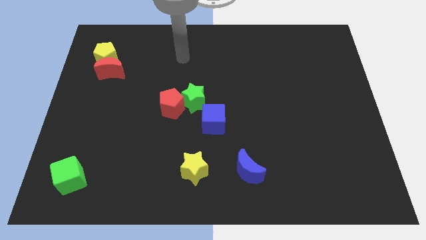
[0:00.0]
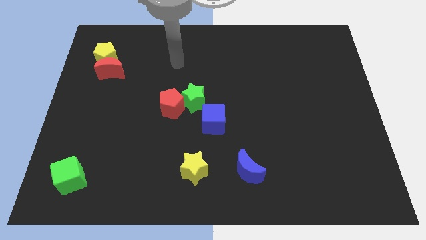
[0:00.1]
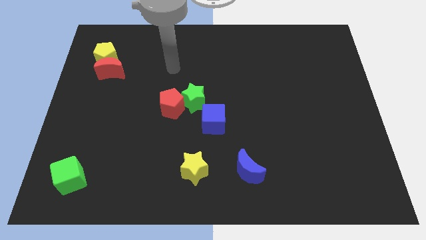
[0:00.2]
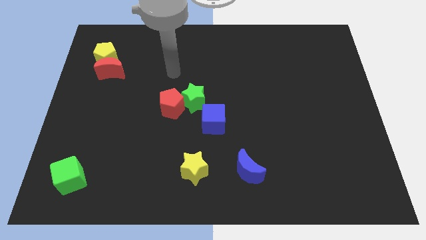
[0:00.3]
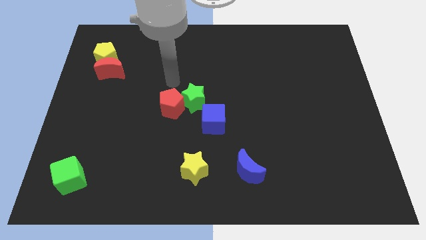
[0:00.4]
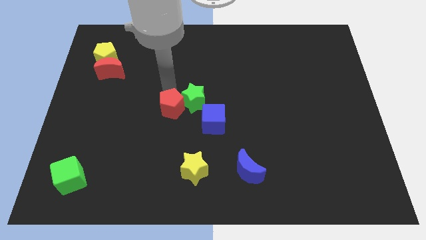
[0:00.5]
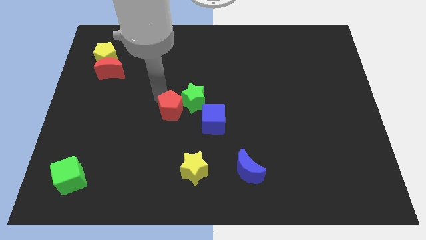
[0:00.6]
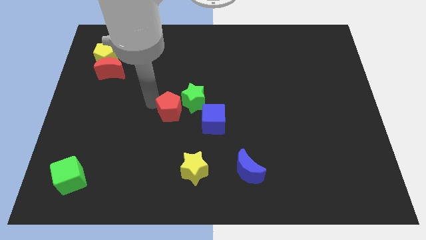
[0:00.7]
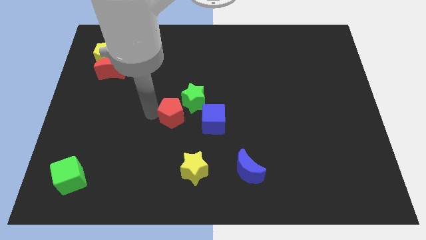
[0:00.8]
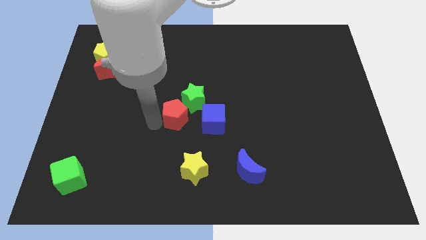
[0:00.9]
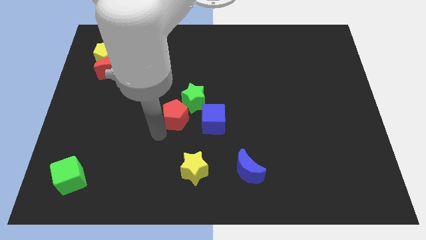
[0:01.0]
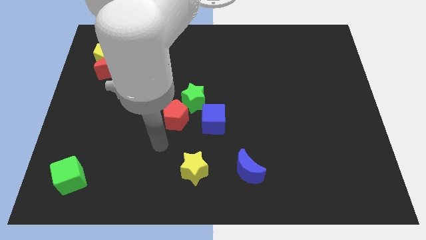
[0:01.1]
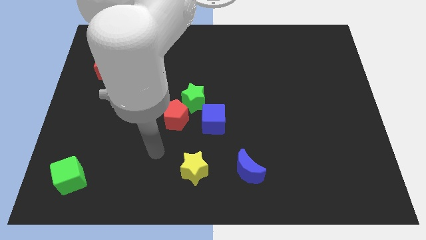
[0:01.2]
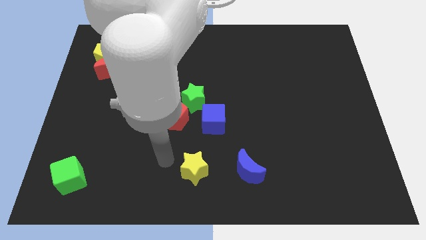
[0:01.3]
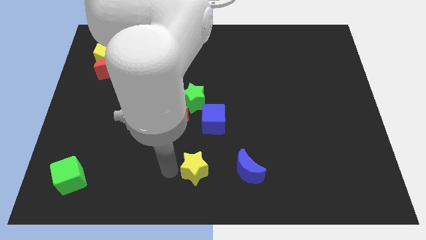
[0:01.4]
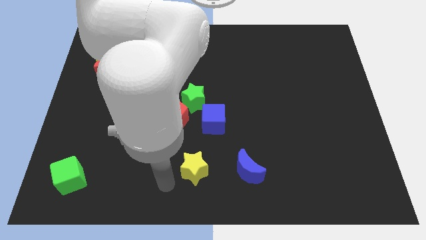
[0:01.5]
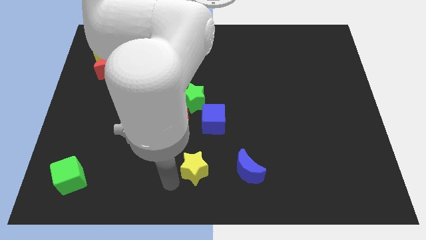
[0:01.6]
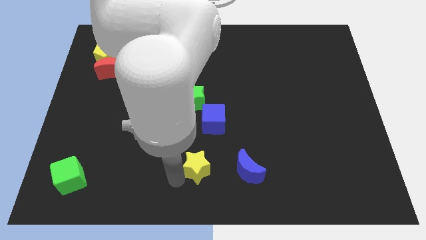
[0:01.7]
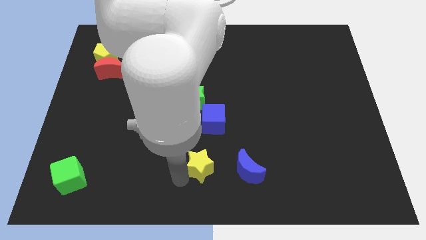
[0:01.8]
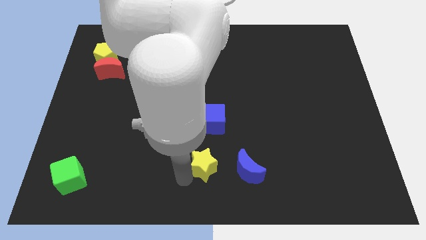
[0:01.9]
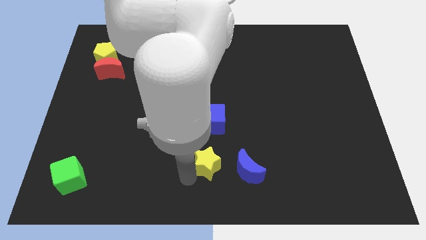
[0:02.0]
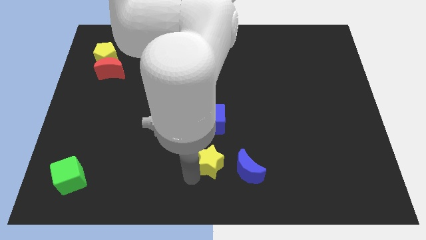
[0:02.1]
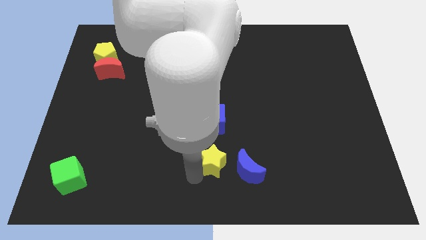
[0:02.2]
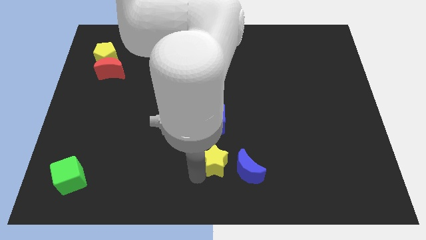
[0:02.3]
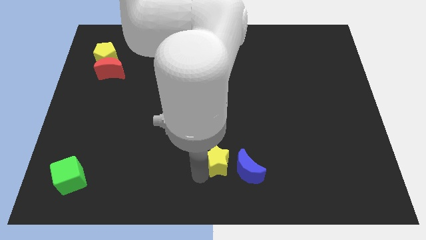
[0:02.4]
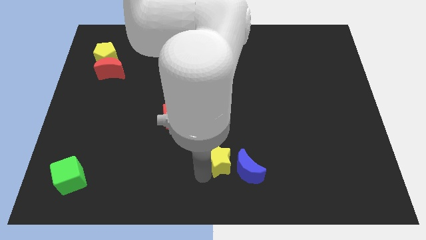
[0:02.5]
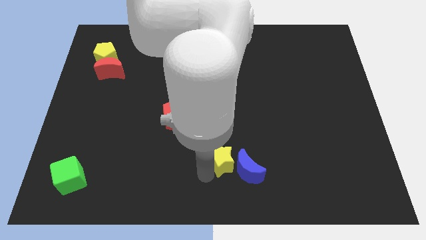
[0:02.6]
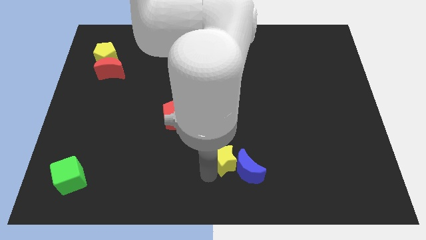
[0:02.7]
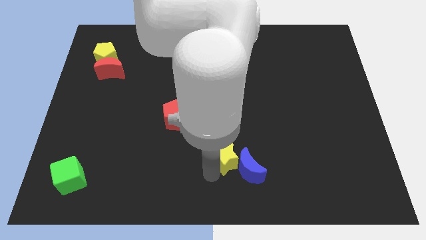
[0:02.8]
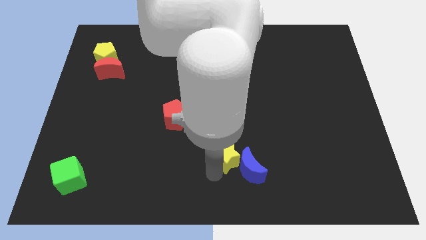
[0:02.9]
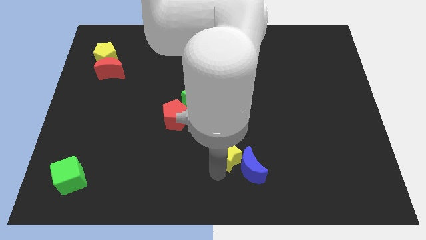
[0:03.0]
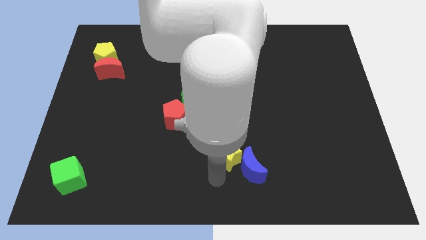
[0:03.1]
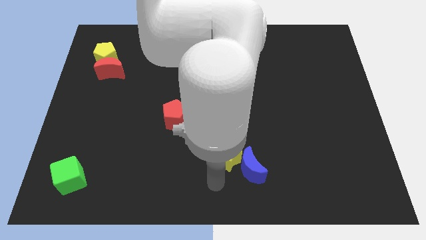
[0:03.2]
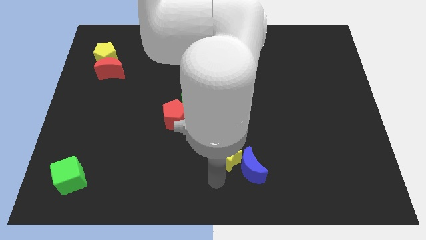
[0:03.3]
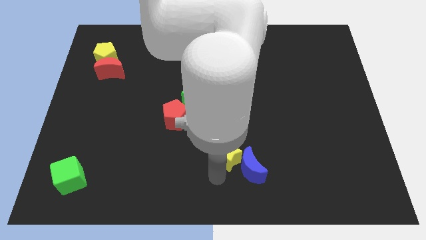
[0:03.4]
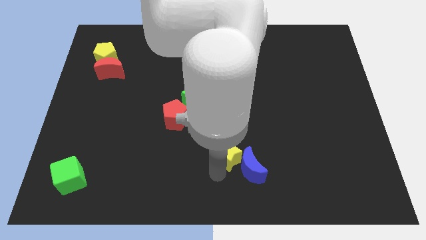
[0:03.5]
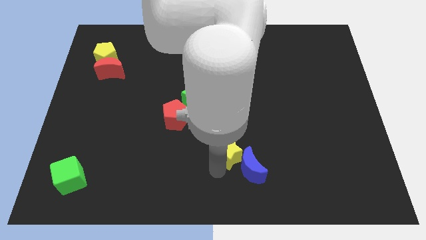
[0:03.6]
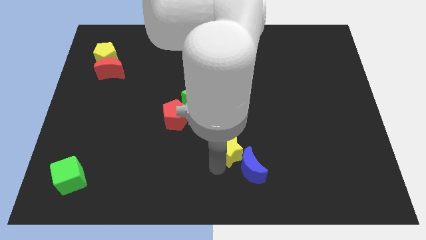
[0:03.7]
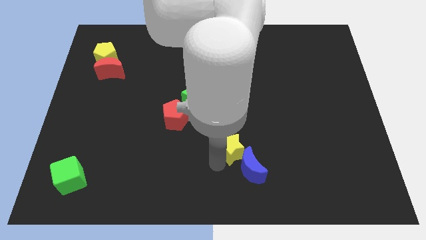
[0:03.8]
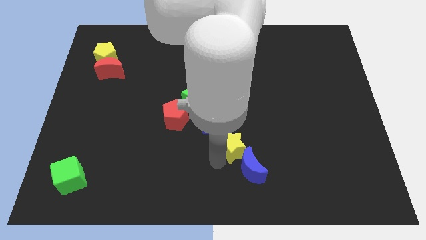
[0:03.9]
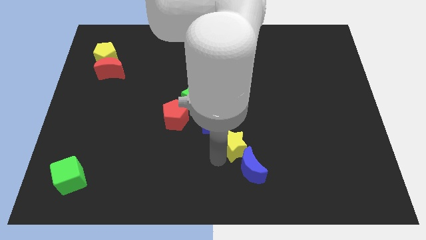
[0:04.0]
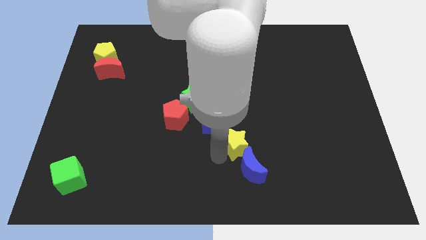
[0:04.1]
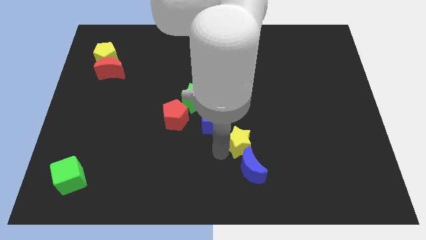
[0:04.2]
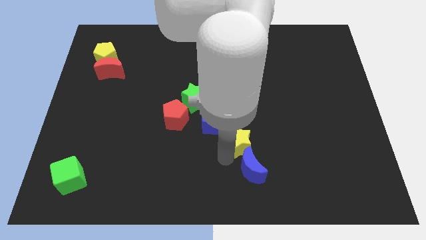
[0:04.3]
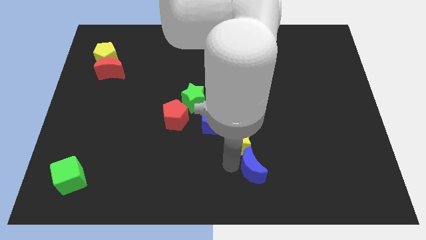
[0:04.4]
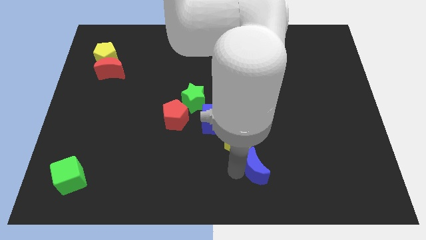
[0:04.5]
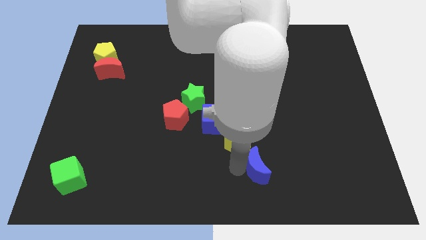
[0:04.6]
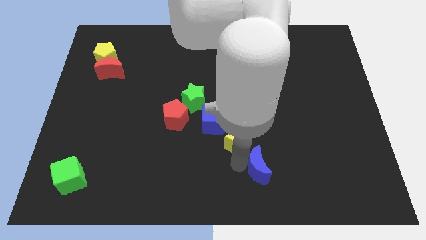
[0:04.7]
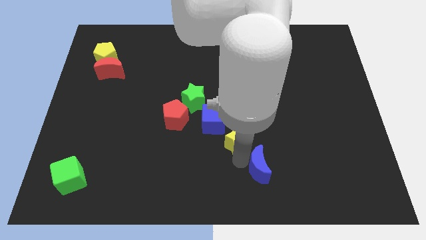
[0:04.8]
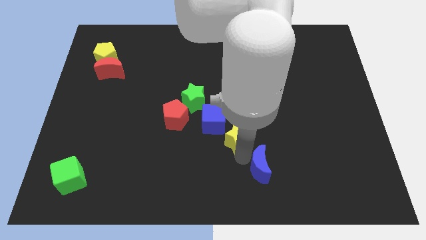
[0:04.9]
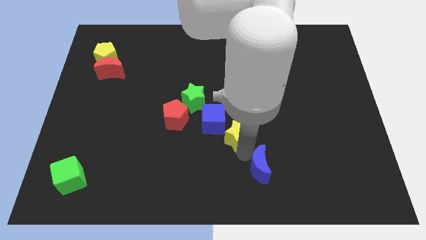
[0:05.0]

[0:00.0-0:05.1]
move the yellow star to the middle of the board

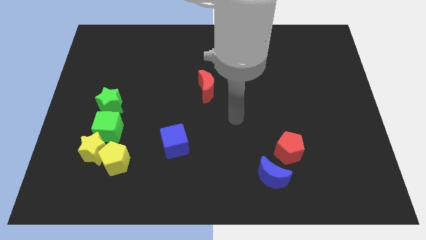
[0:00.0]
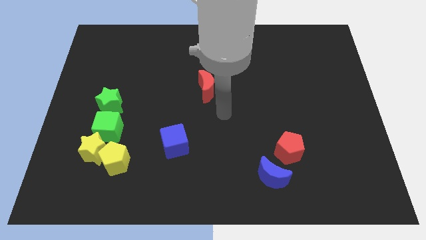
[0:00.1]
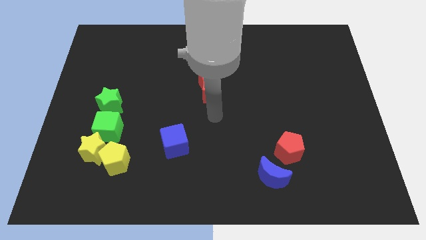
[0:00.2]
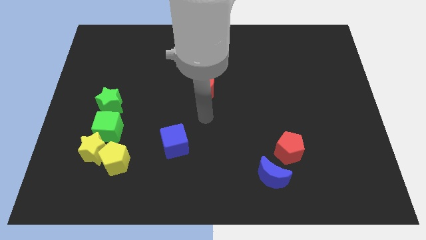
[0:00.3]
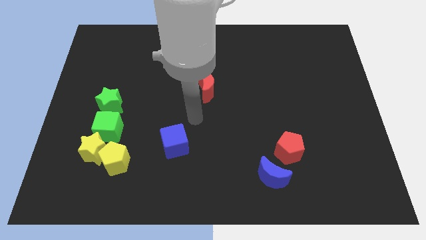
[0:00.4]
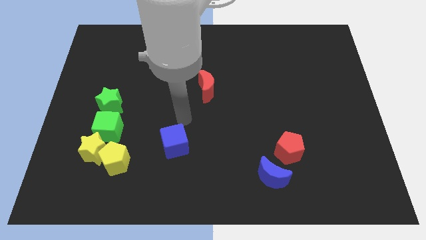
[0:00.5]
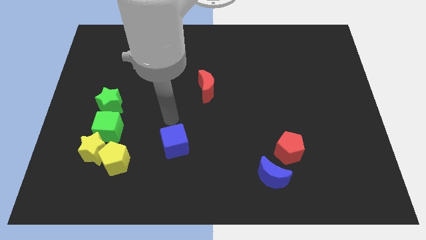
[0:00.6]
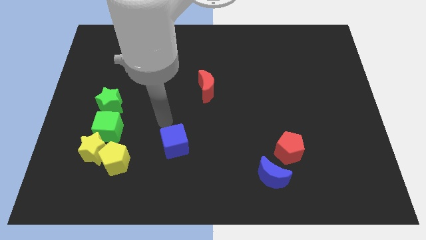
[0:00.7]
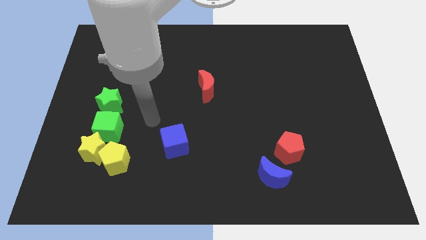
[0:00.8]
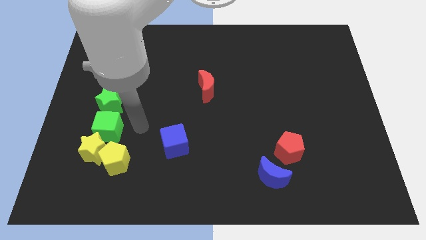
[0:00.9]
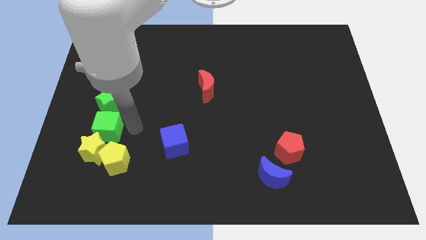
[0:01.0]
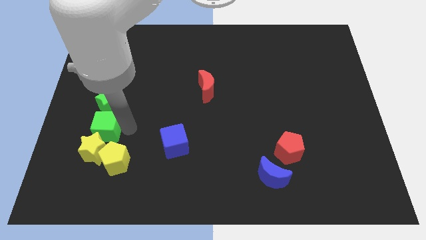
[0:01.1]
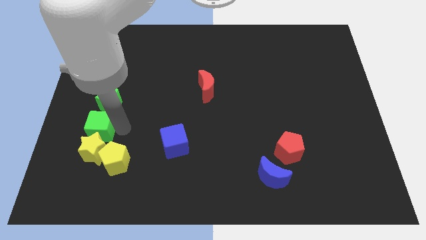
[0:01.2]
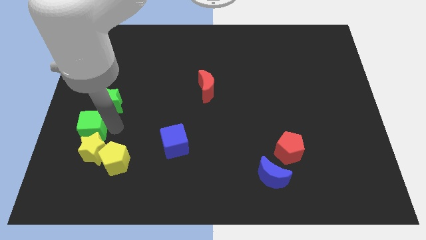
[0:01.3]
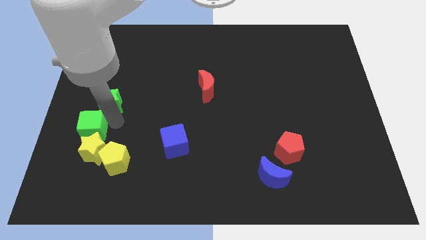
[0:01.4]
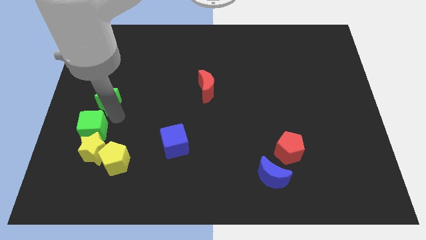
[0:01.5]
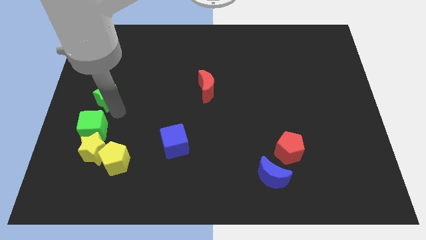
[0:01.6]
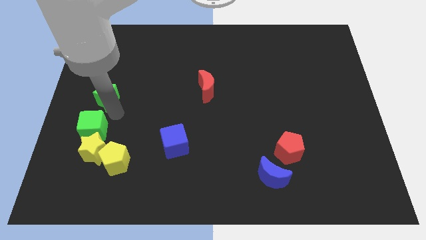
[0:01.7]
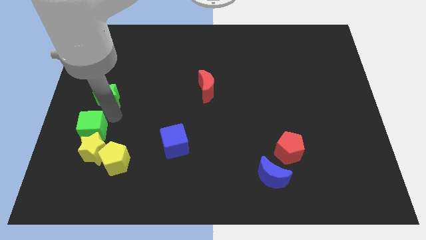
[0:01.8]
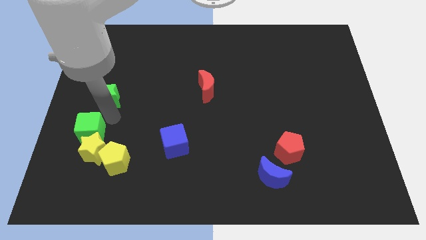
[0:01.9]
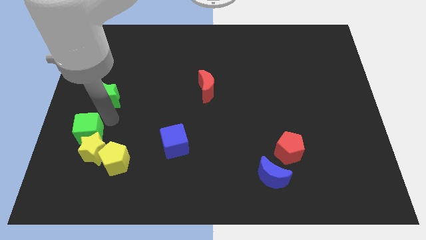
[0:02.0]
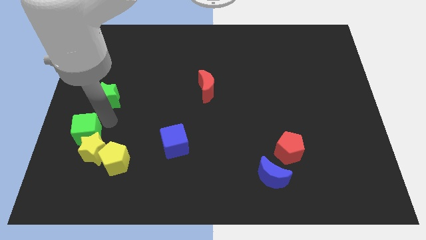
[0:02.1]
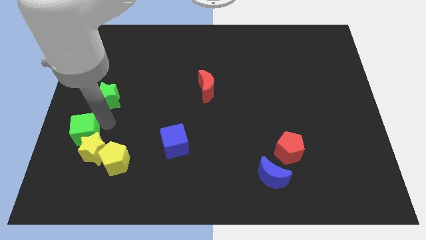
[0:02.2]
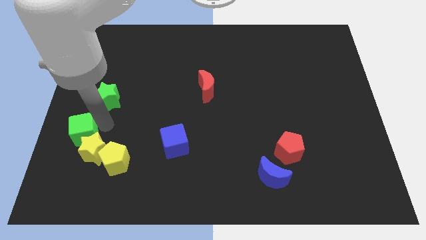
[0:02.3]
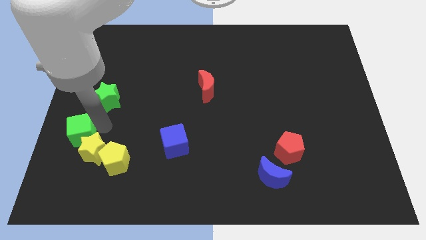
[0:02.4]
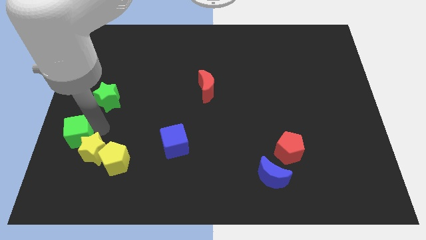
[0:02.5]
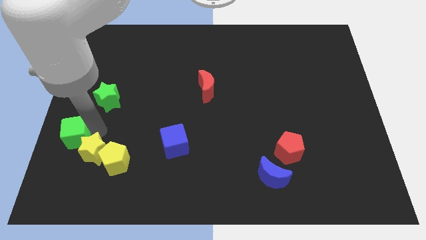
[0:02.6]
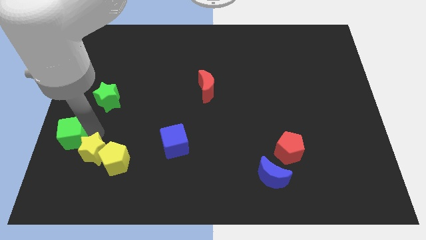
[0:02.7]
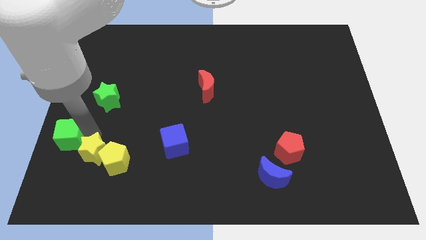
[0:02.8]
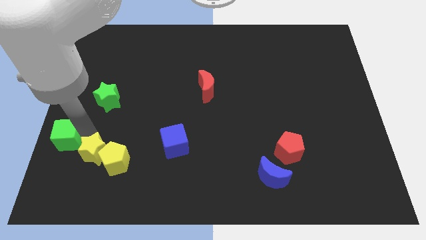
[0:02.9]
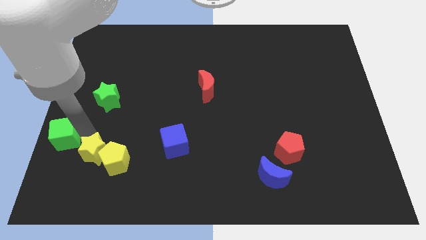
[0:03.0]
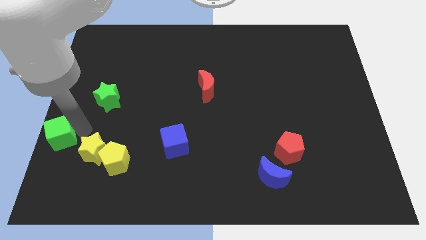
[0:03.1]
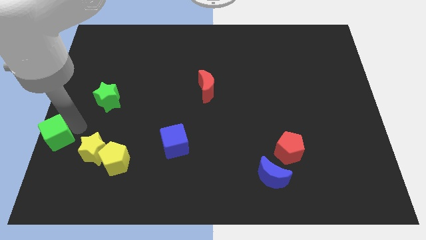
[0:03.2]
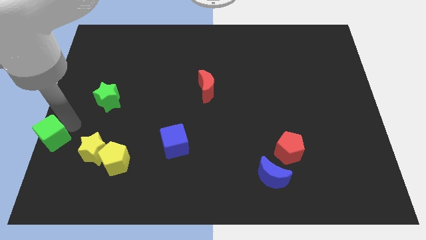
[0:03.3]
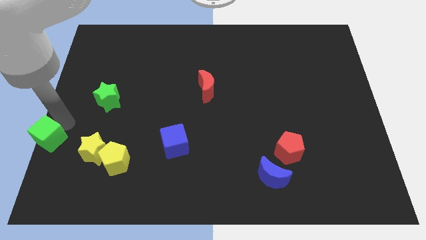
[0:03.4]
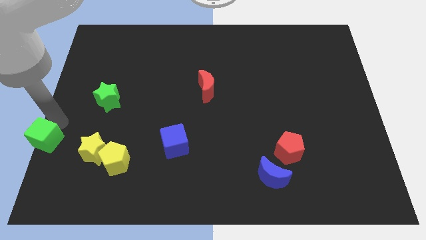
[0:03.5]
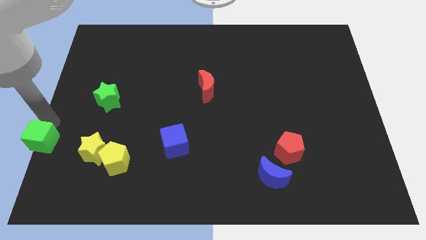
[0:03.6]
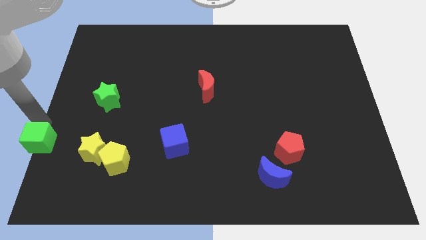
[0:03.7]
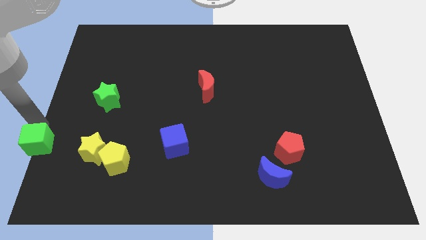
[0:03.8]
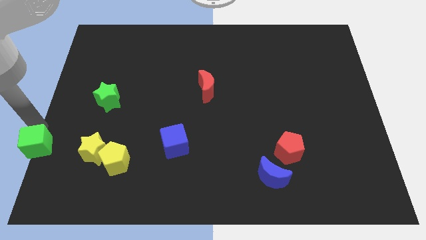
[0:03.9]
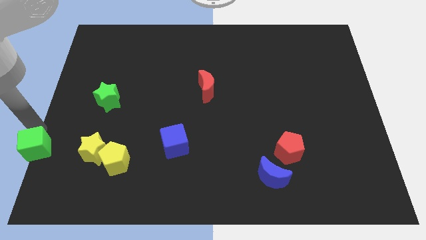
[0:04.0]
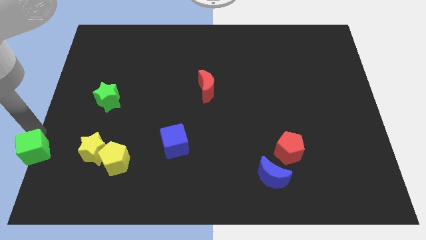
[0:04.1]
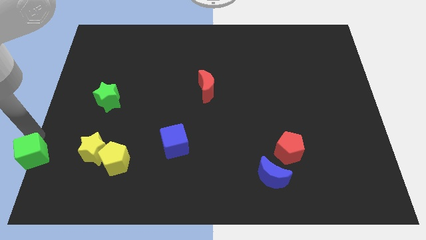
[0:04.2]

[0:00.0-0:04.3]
put the green cube to the bottom left corner
